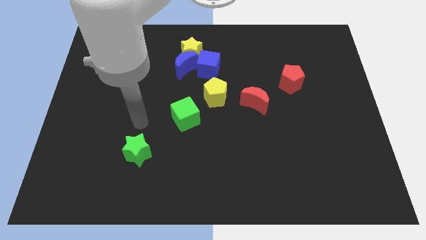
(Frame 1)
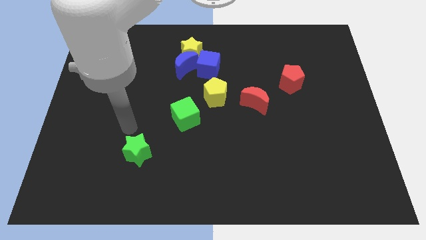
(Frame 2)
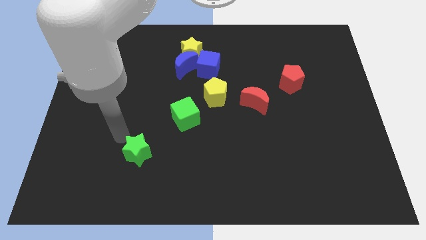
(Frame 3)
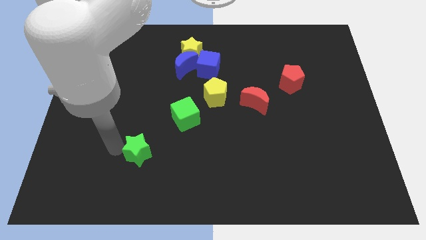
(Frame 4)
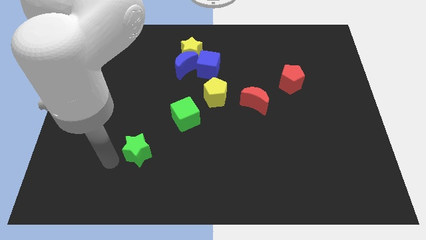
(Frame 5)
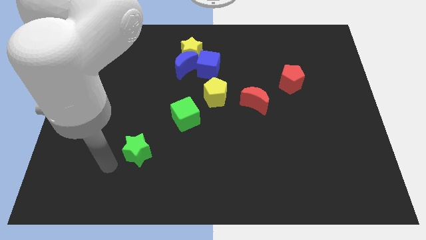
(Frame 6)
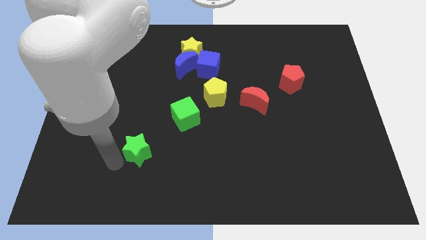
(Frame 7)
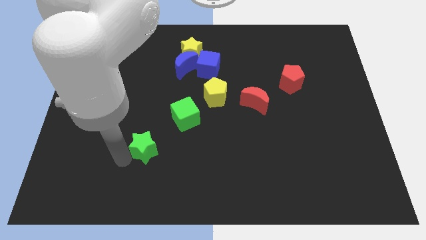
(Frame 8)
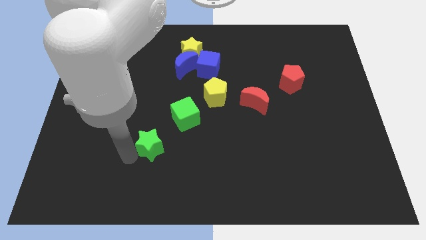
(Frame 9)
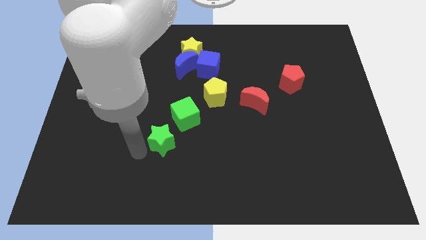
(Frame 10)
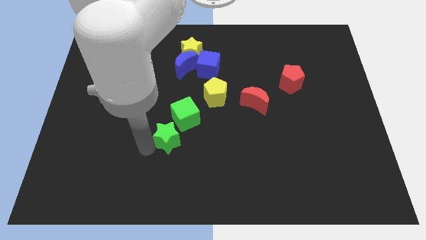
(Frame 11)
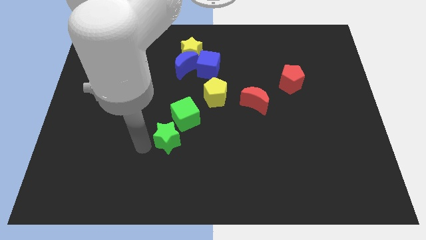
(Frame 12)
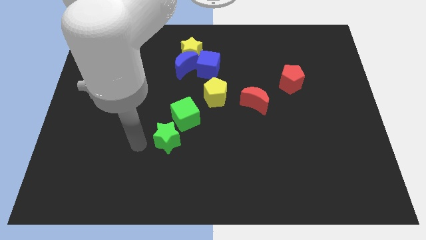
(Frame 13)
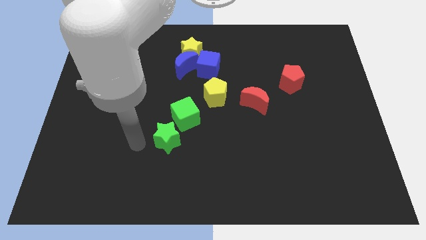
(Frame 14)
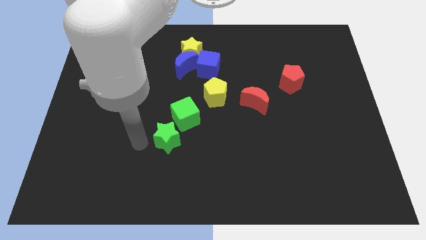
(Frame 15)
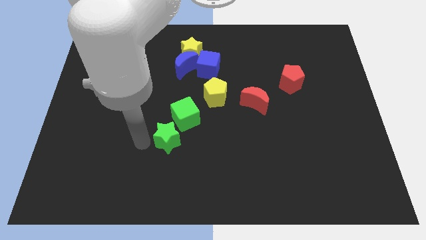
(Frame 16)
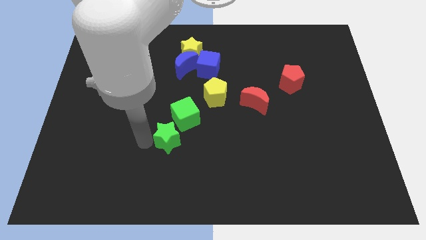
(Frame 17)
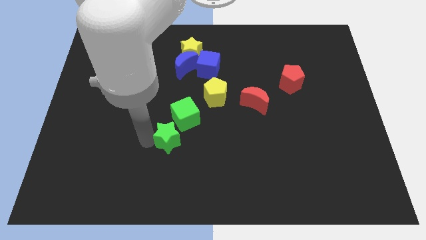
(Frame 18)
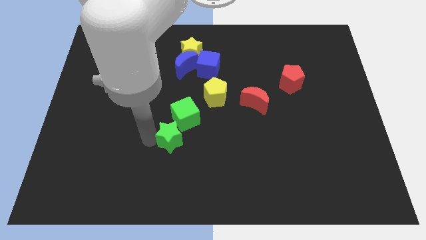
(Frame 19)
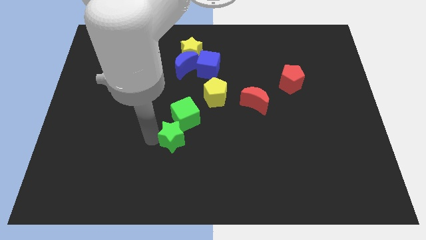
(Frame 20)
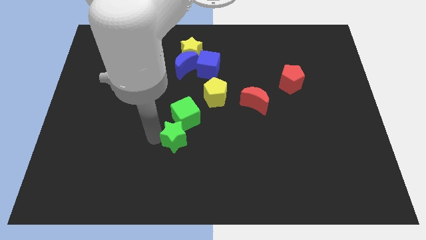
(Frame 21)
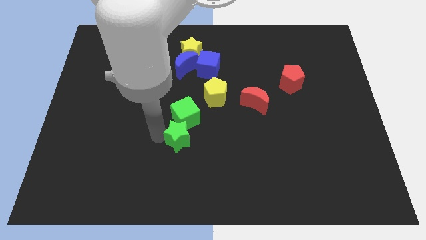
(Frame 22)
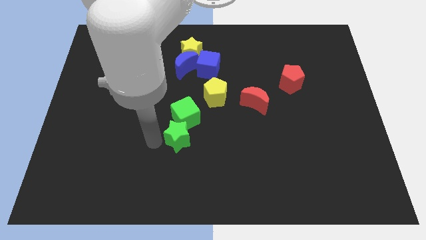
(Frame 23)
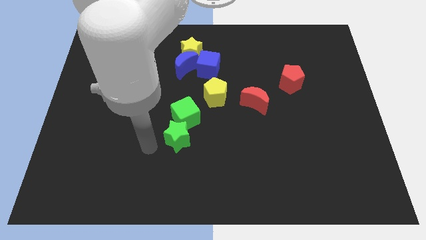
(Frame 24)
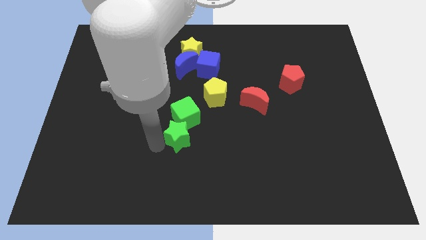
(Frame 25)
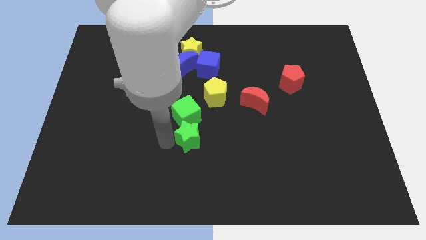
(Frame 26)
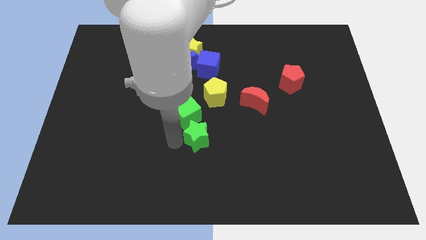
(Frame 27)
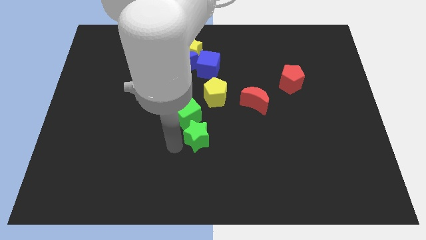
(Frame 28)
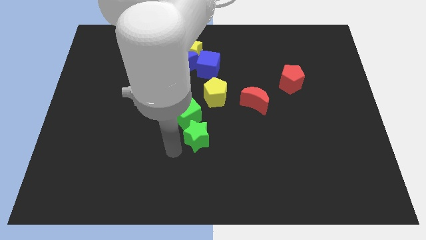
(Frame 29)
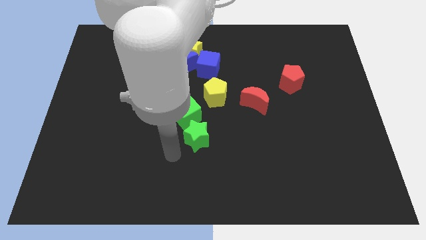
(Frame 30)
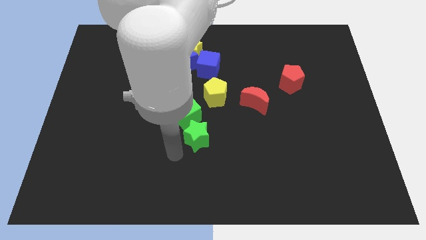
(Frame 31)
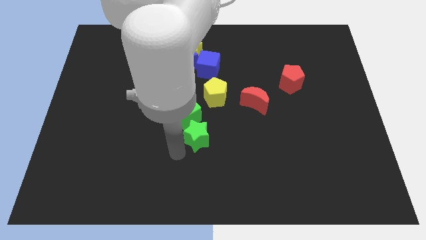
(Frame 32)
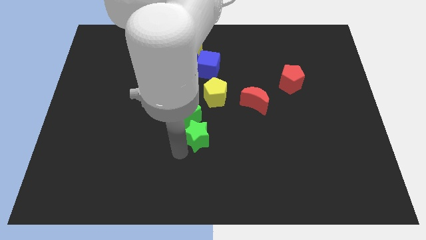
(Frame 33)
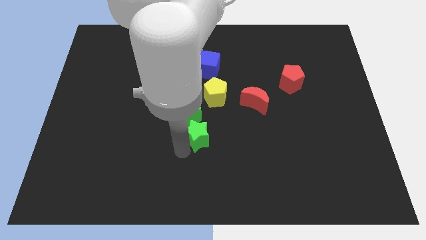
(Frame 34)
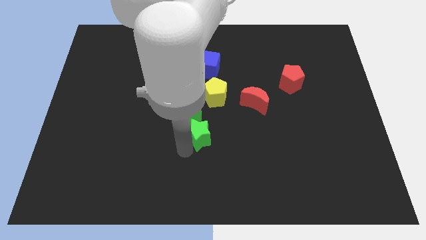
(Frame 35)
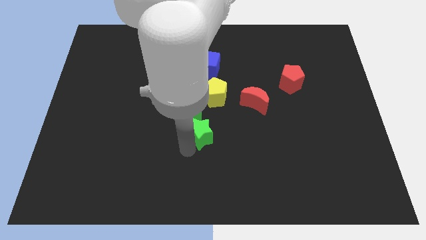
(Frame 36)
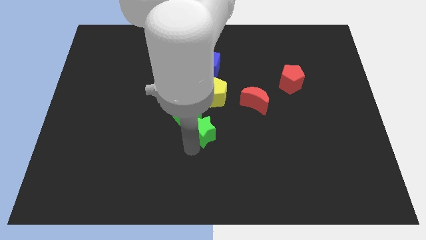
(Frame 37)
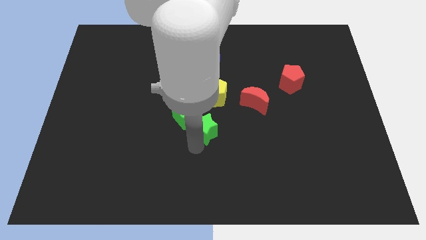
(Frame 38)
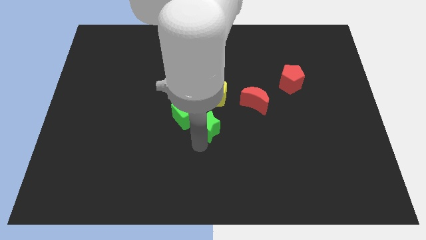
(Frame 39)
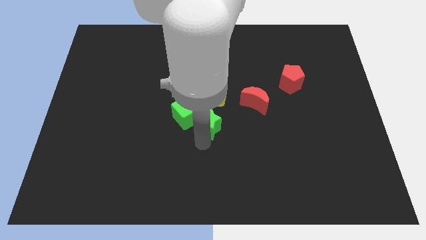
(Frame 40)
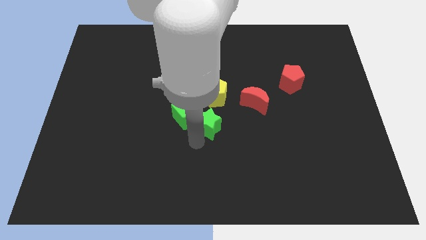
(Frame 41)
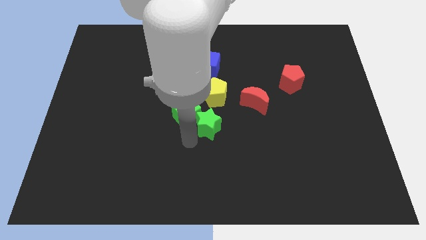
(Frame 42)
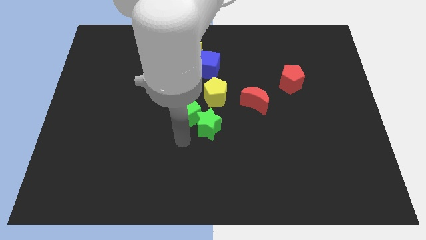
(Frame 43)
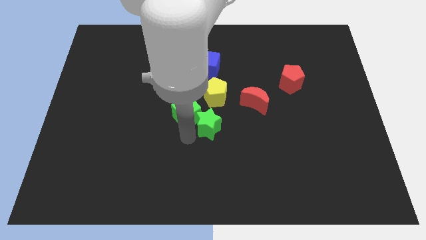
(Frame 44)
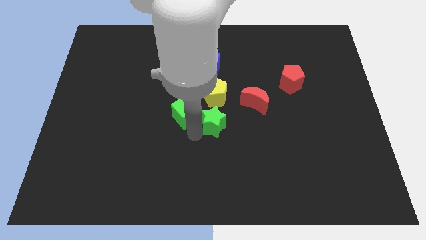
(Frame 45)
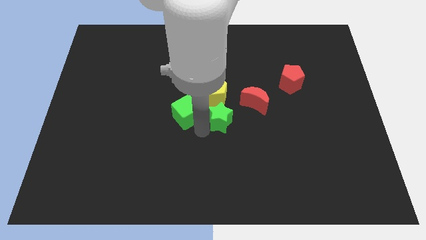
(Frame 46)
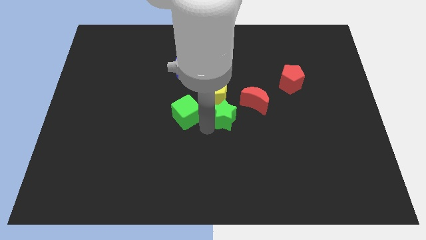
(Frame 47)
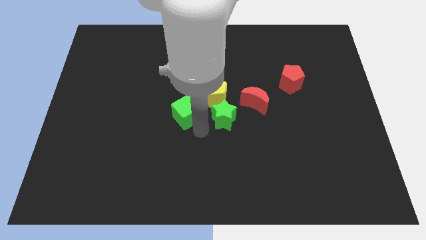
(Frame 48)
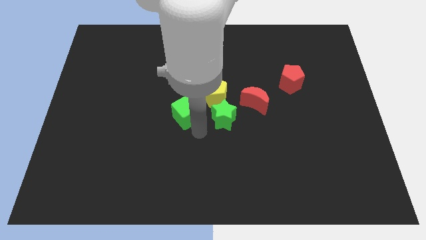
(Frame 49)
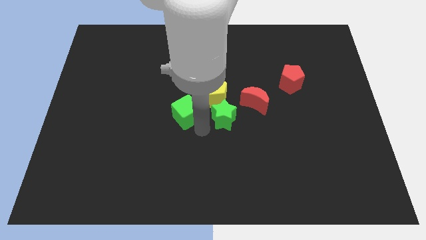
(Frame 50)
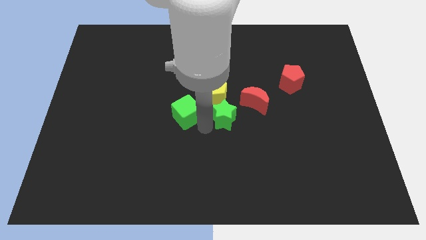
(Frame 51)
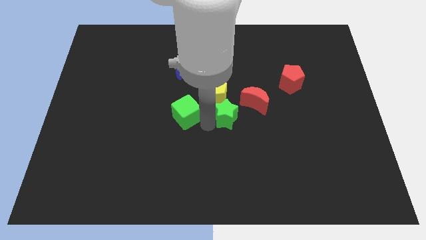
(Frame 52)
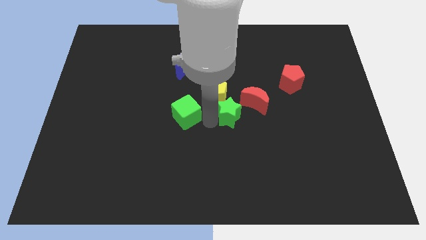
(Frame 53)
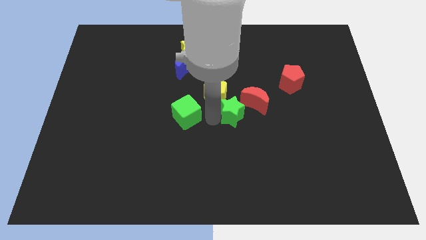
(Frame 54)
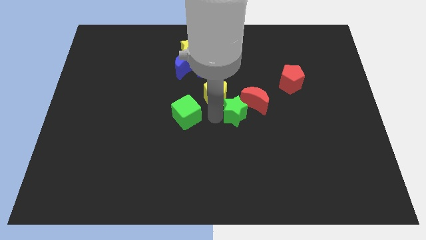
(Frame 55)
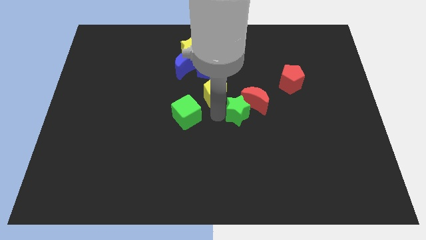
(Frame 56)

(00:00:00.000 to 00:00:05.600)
put the green star towards the red moon
